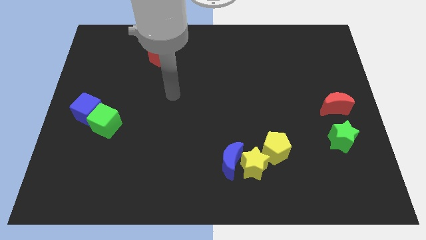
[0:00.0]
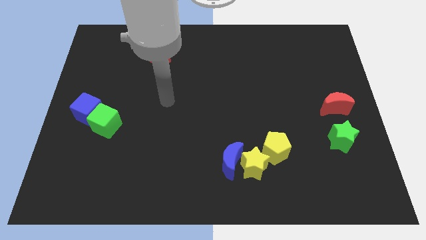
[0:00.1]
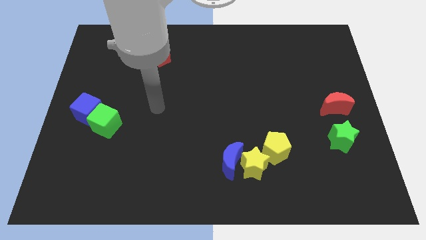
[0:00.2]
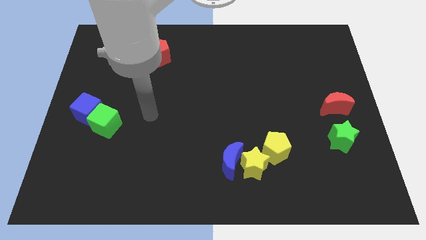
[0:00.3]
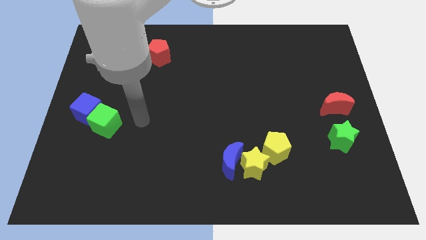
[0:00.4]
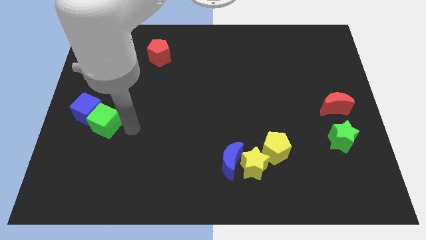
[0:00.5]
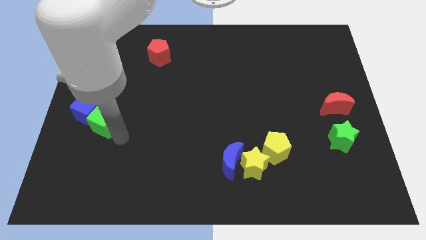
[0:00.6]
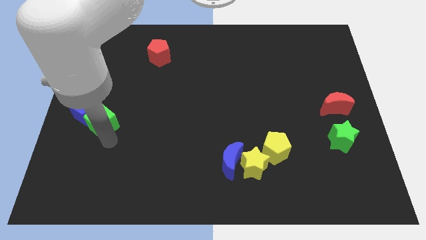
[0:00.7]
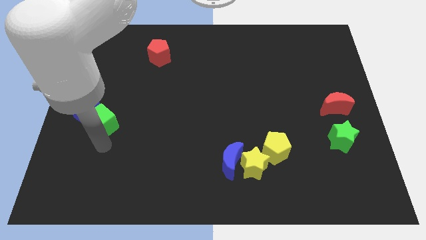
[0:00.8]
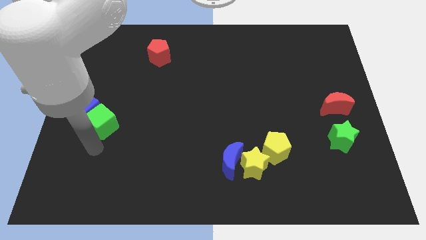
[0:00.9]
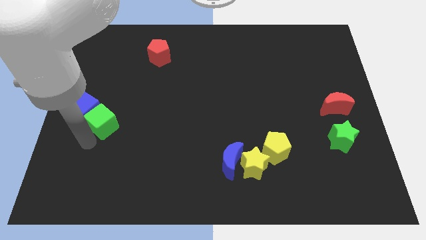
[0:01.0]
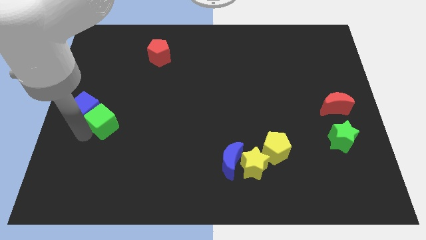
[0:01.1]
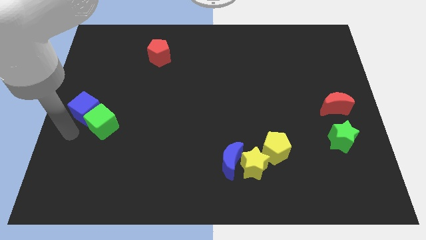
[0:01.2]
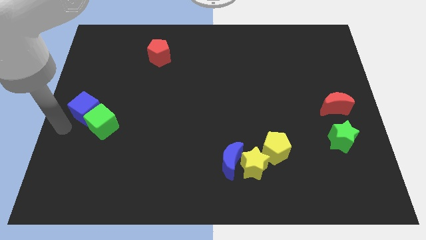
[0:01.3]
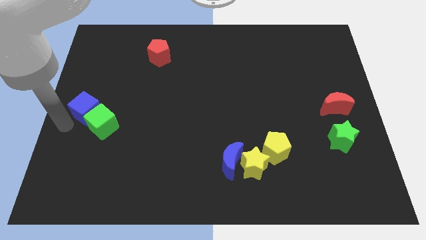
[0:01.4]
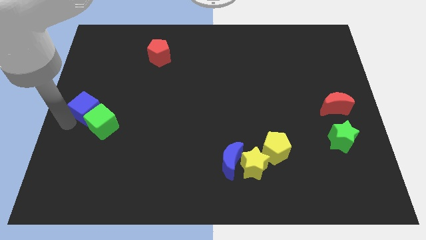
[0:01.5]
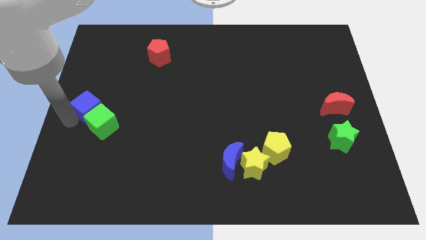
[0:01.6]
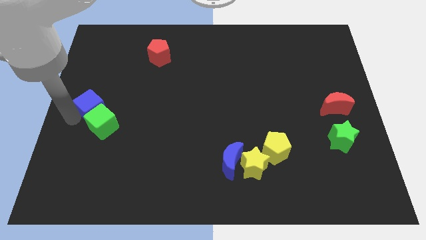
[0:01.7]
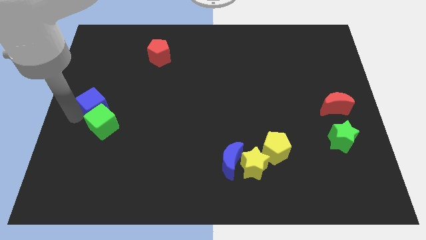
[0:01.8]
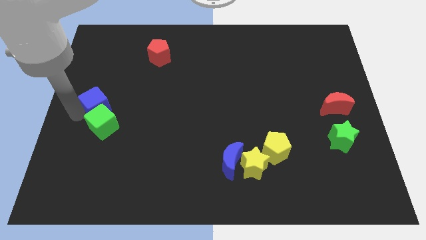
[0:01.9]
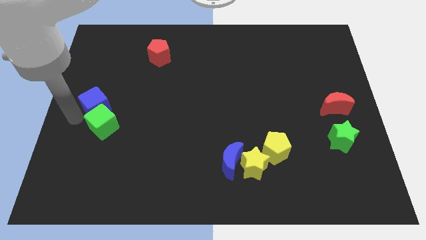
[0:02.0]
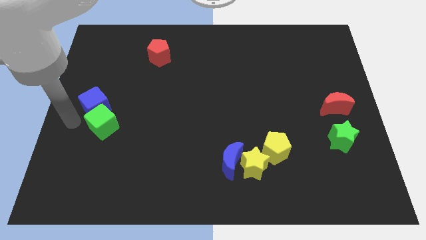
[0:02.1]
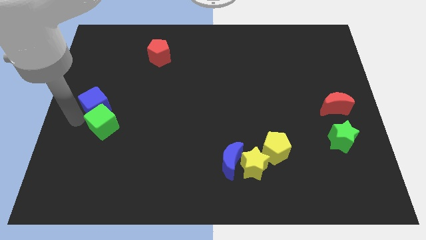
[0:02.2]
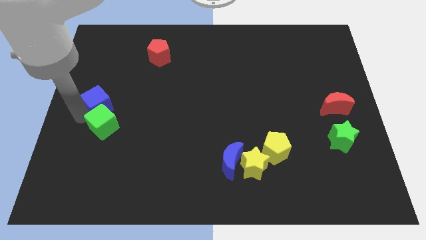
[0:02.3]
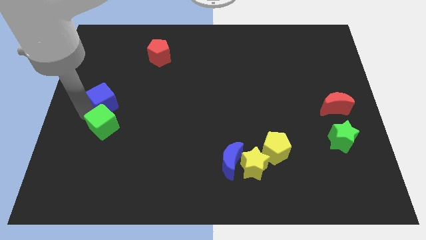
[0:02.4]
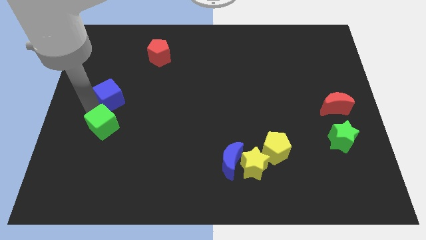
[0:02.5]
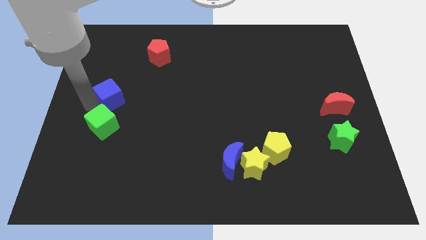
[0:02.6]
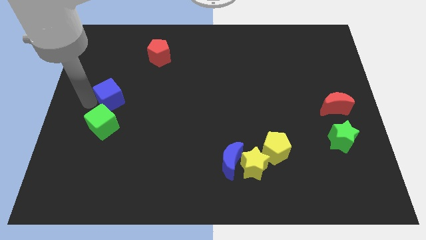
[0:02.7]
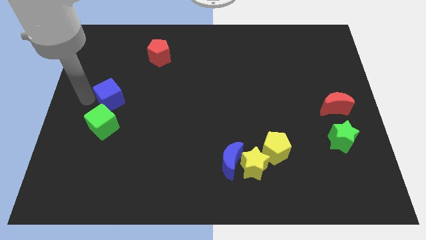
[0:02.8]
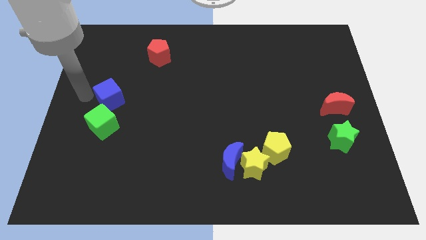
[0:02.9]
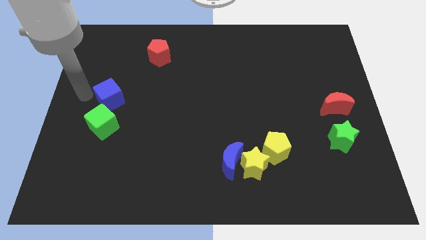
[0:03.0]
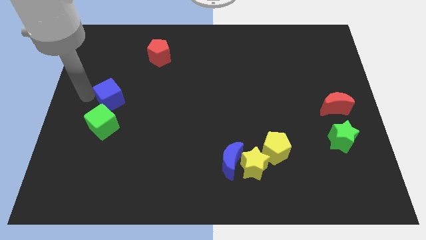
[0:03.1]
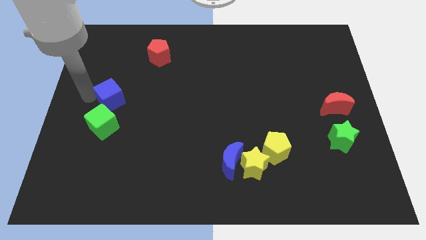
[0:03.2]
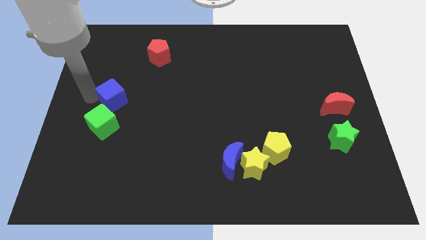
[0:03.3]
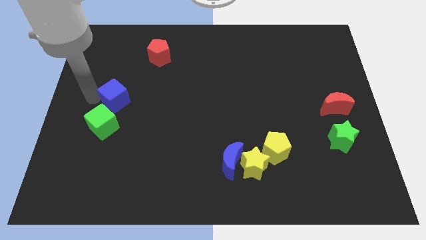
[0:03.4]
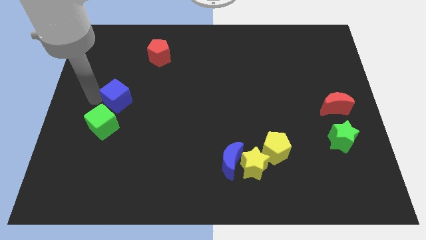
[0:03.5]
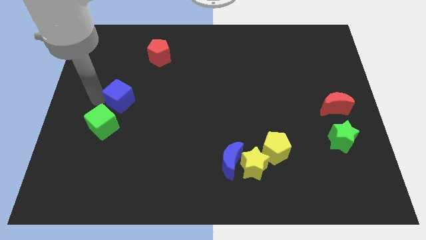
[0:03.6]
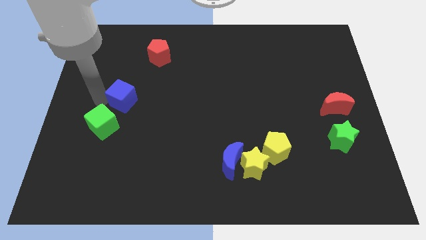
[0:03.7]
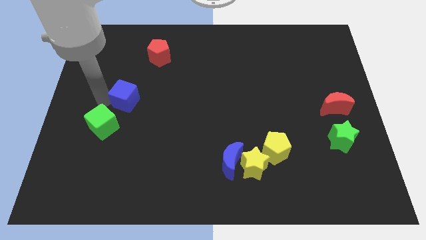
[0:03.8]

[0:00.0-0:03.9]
slightly move the blue cube right

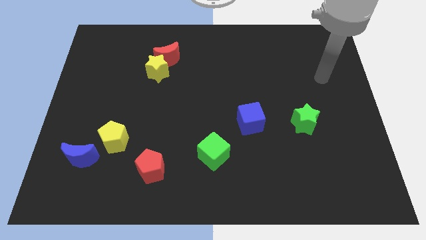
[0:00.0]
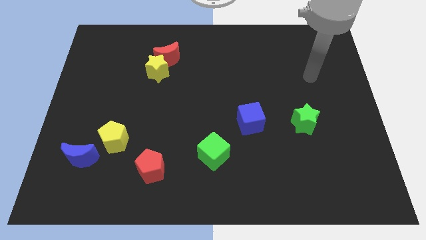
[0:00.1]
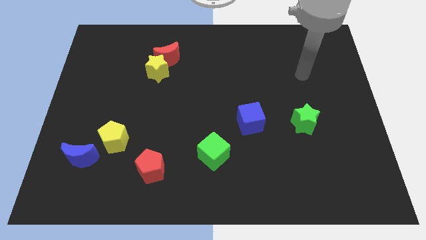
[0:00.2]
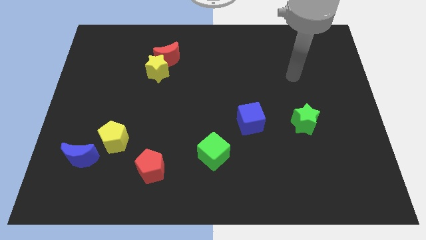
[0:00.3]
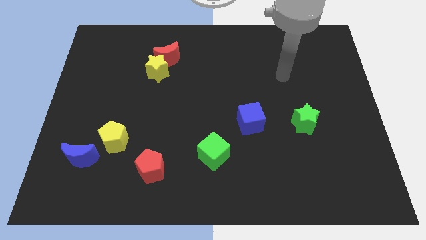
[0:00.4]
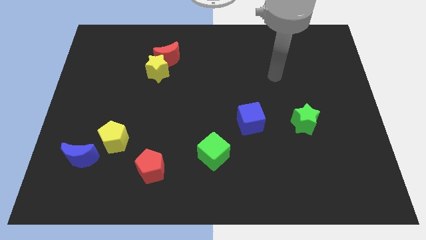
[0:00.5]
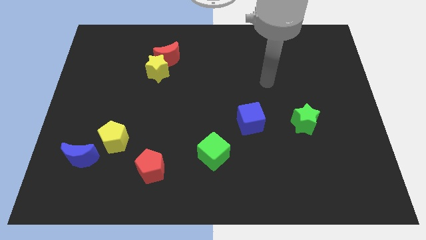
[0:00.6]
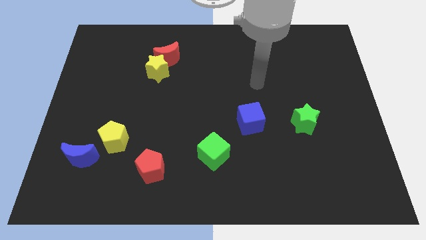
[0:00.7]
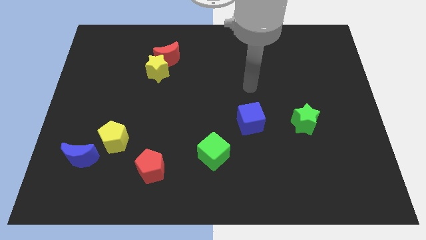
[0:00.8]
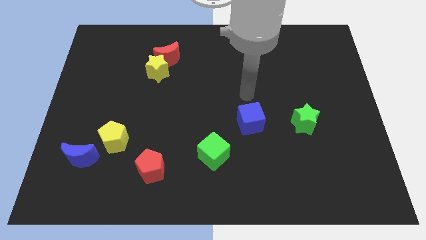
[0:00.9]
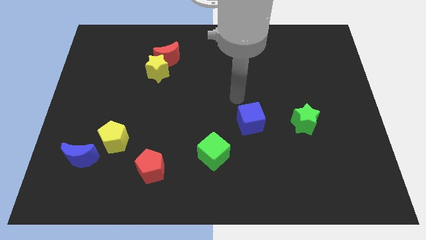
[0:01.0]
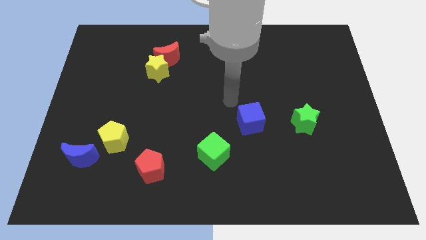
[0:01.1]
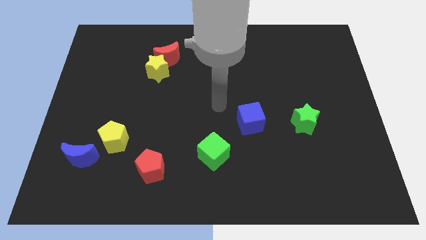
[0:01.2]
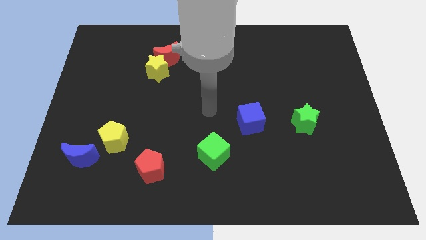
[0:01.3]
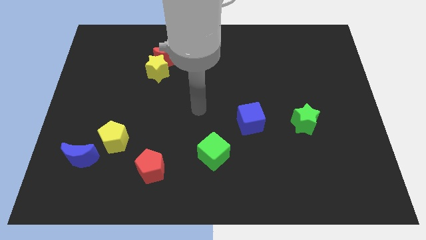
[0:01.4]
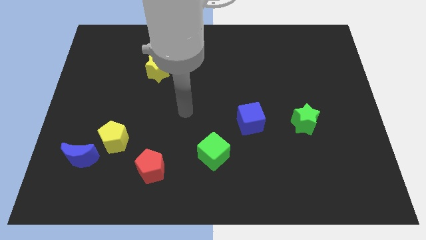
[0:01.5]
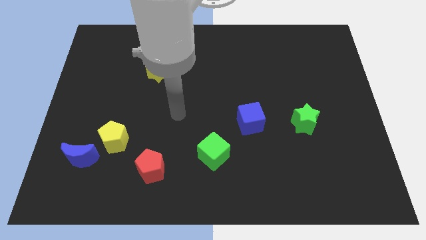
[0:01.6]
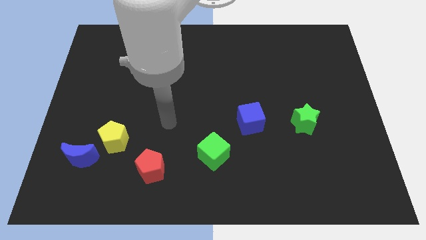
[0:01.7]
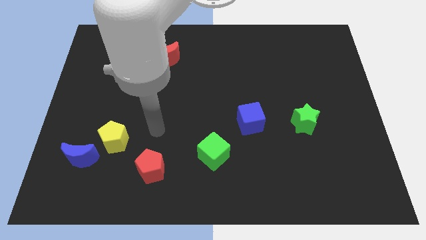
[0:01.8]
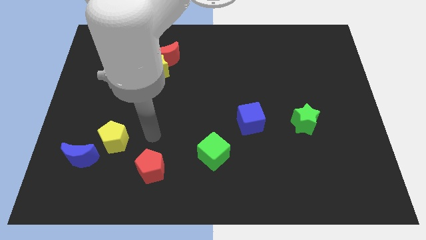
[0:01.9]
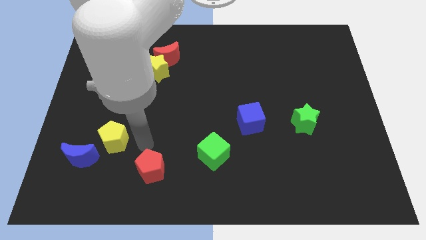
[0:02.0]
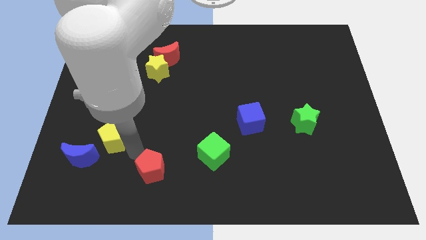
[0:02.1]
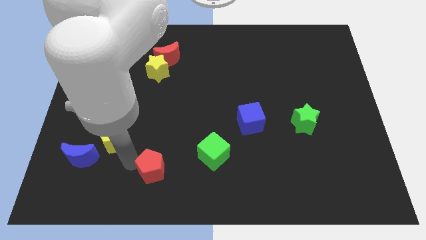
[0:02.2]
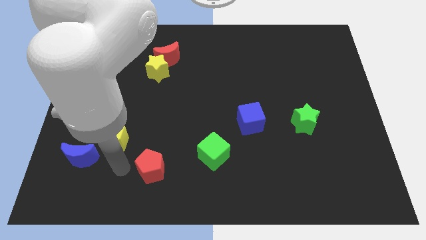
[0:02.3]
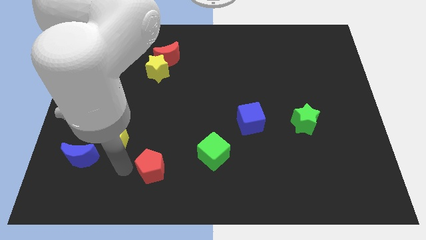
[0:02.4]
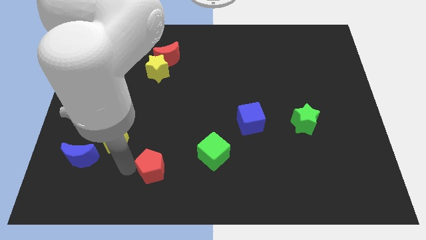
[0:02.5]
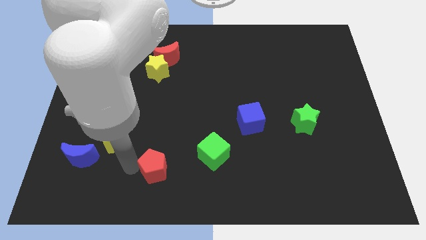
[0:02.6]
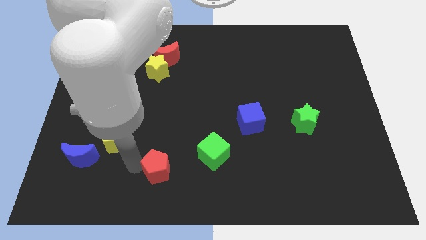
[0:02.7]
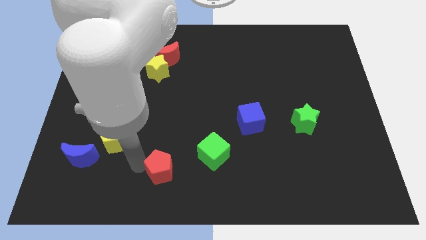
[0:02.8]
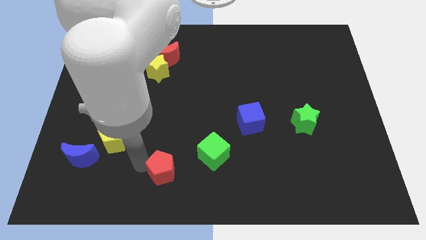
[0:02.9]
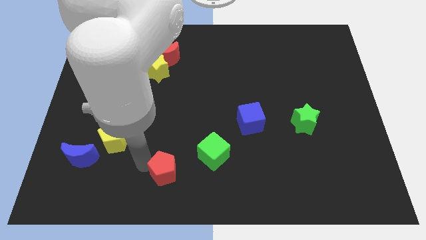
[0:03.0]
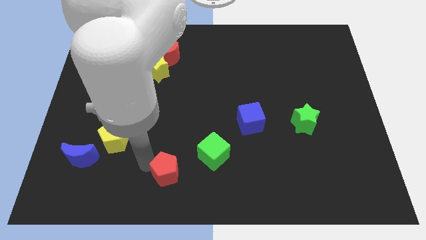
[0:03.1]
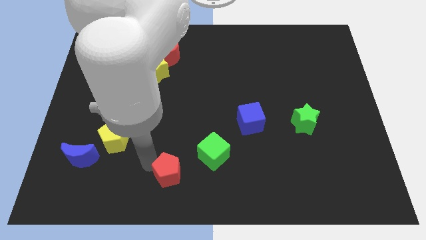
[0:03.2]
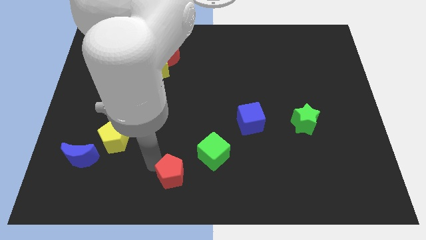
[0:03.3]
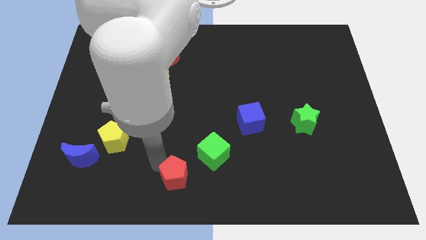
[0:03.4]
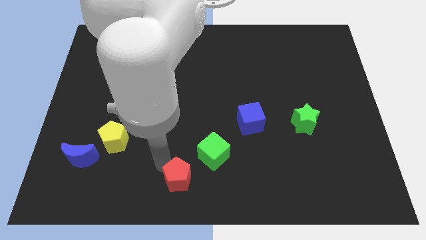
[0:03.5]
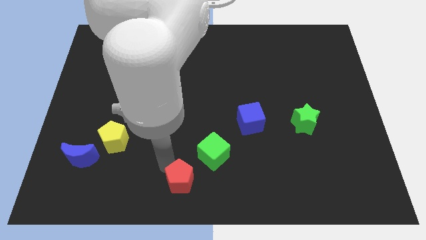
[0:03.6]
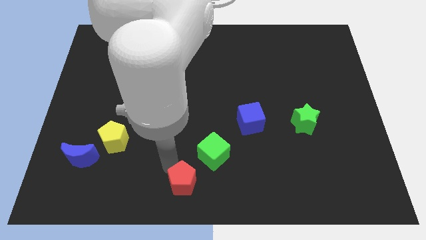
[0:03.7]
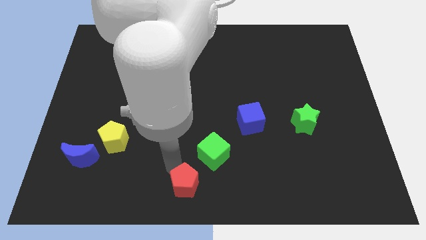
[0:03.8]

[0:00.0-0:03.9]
move the red pentagon somewhat to the right

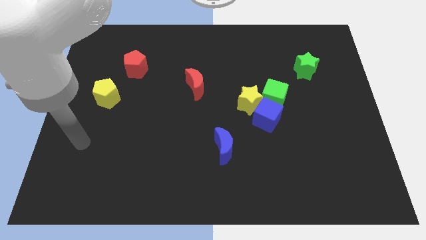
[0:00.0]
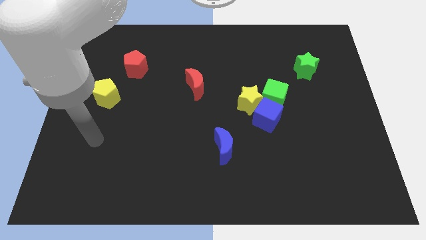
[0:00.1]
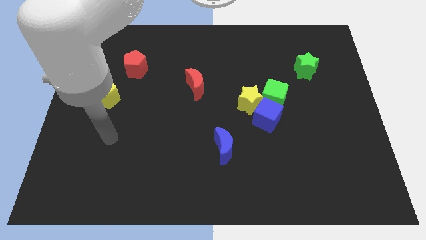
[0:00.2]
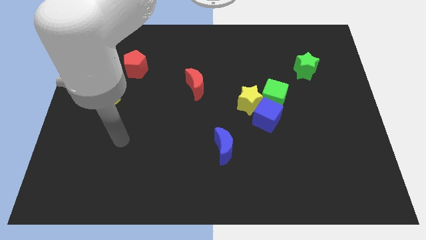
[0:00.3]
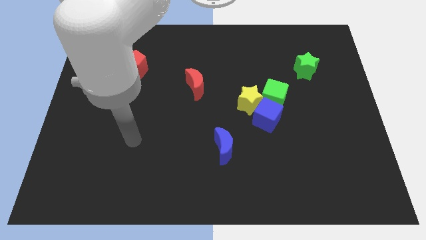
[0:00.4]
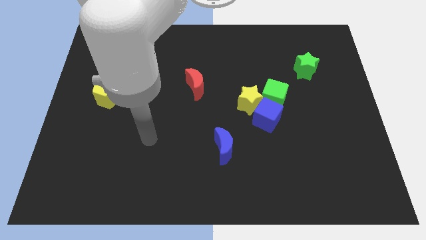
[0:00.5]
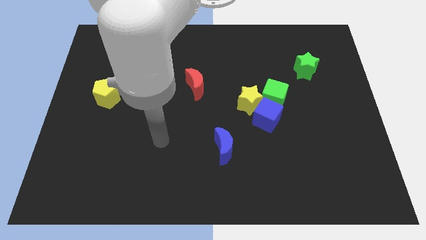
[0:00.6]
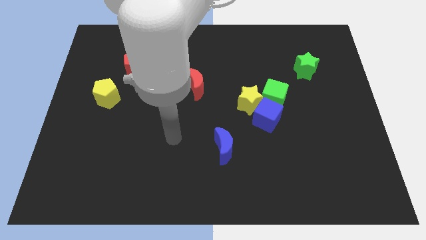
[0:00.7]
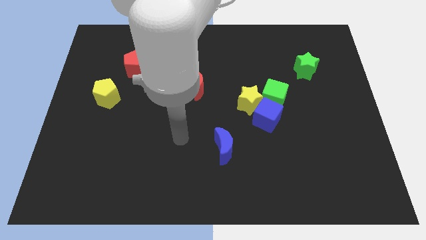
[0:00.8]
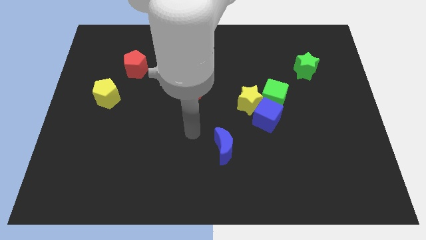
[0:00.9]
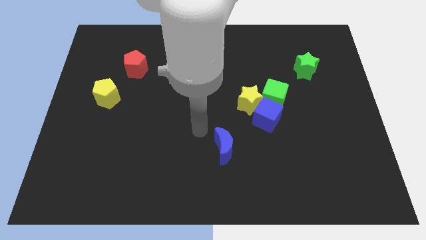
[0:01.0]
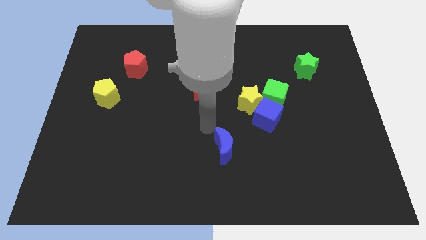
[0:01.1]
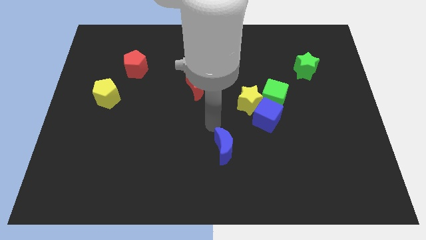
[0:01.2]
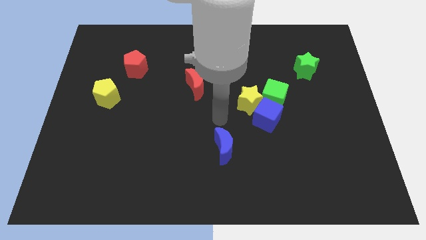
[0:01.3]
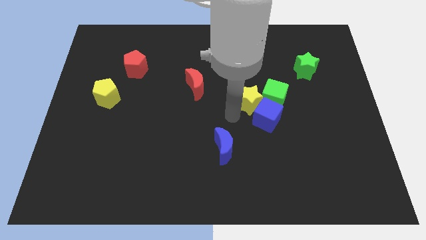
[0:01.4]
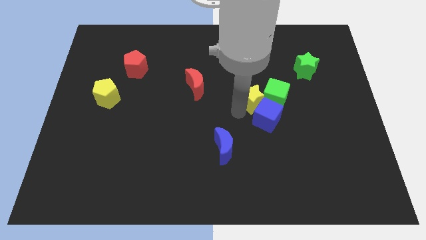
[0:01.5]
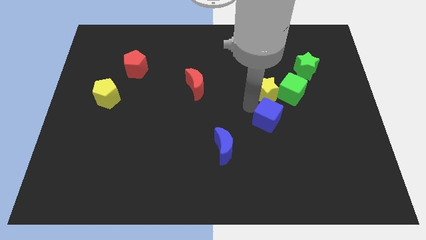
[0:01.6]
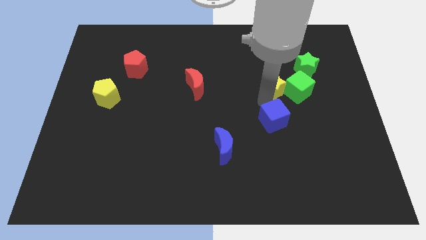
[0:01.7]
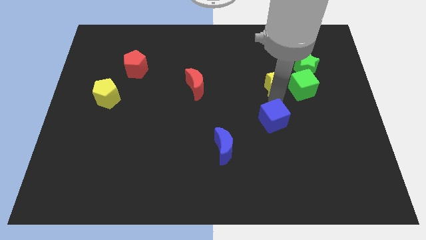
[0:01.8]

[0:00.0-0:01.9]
slightly move the green cube diagonally up and to the right
